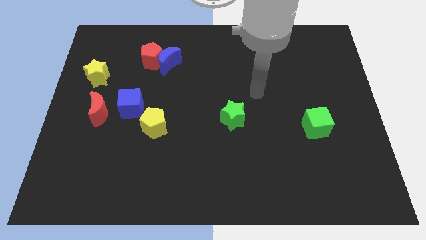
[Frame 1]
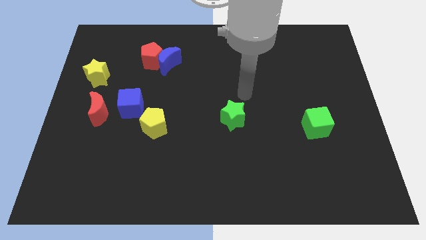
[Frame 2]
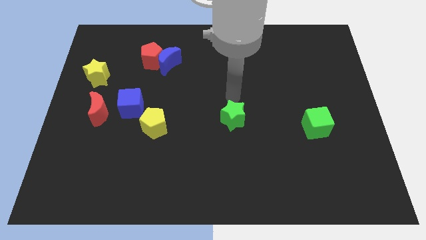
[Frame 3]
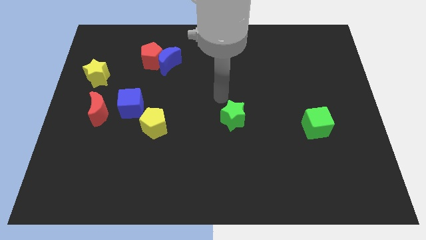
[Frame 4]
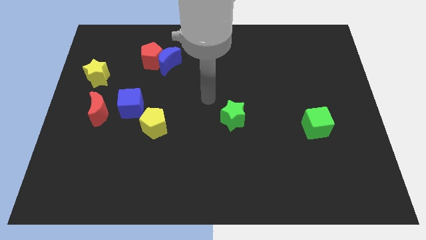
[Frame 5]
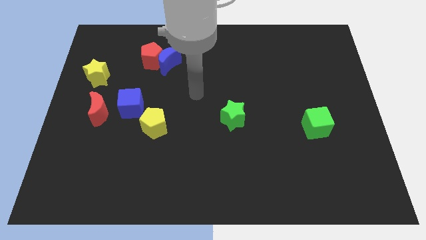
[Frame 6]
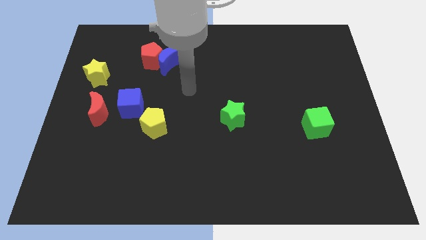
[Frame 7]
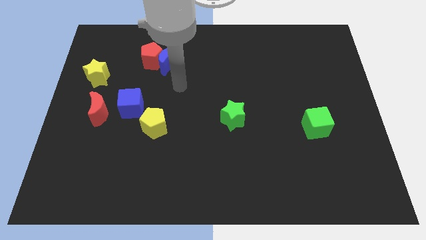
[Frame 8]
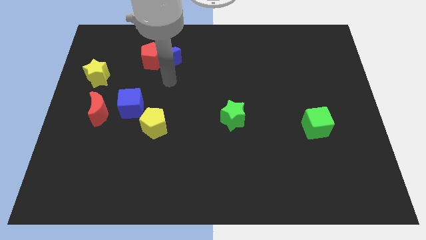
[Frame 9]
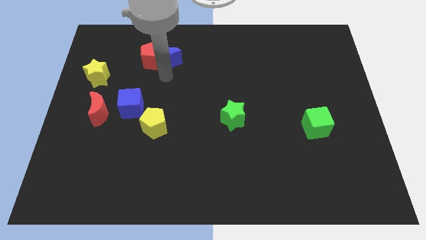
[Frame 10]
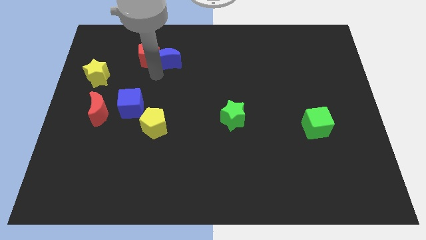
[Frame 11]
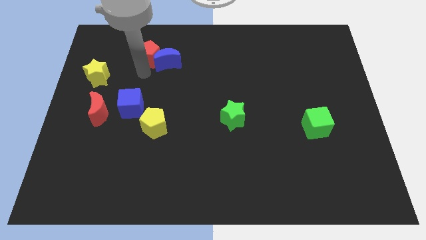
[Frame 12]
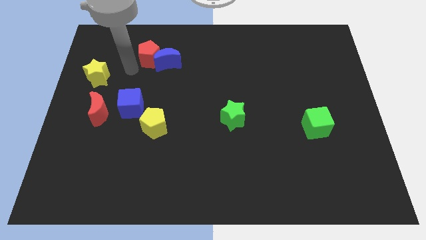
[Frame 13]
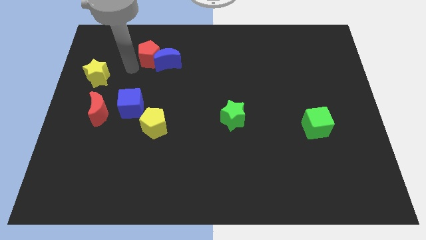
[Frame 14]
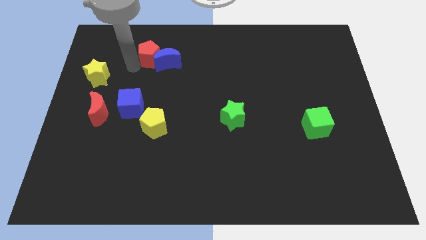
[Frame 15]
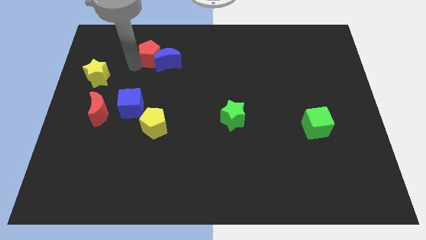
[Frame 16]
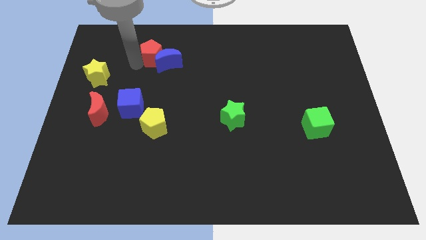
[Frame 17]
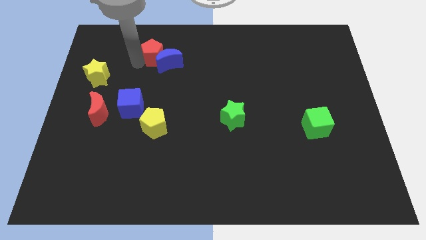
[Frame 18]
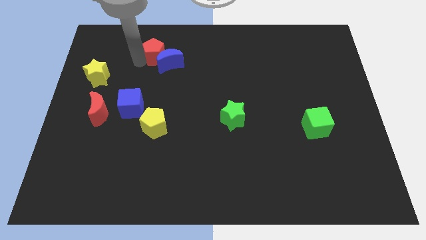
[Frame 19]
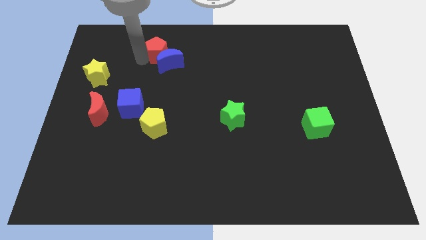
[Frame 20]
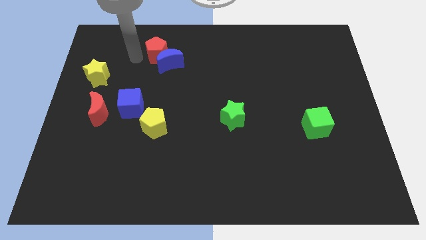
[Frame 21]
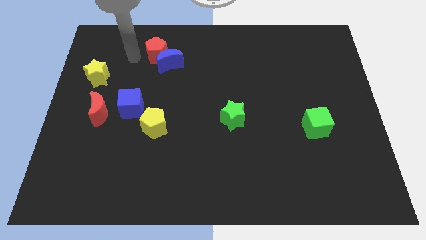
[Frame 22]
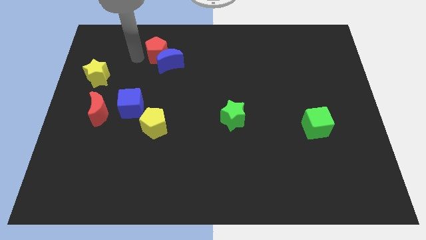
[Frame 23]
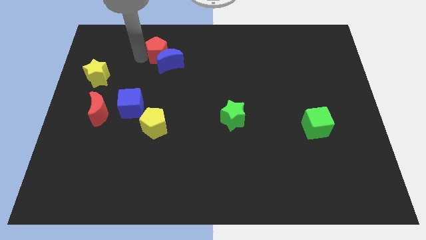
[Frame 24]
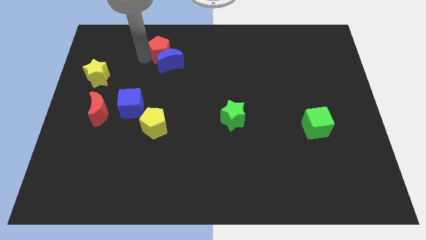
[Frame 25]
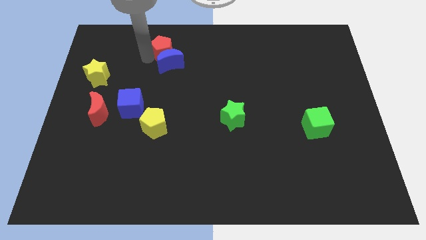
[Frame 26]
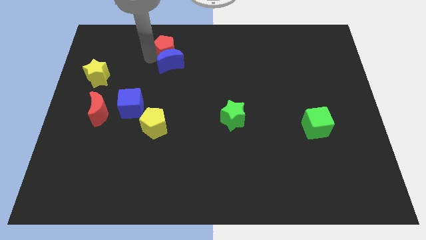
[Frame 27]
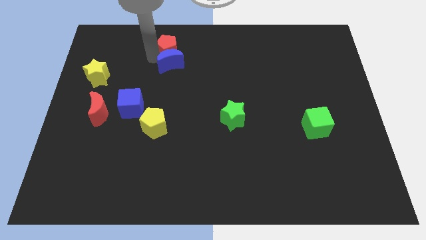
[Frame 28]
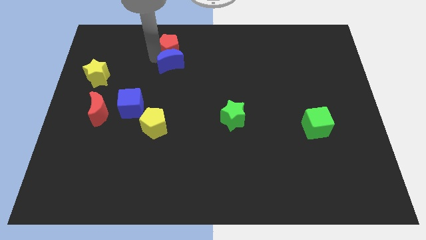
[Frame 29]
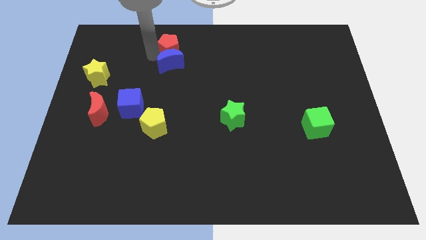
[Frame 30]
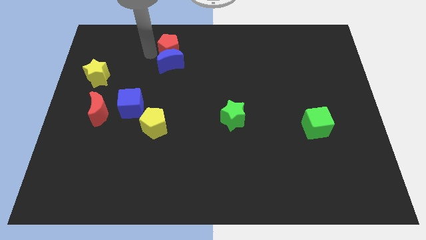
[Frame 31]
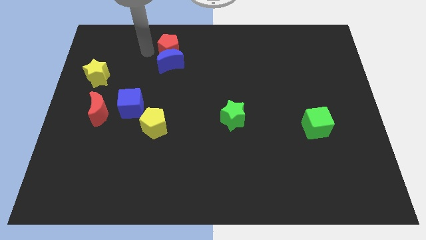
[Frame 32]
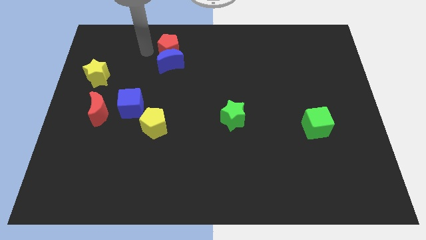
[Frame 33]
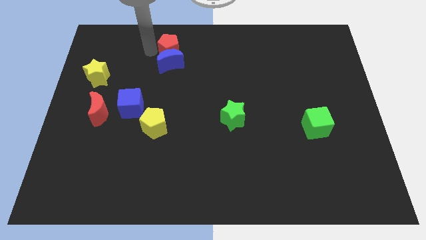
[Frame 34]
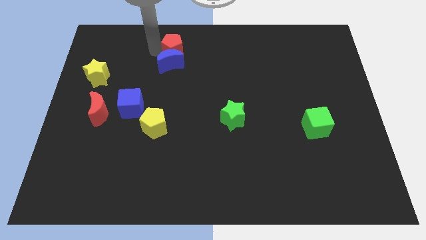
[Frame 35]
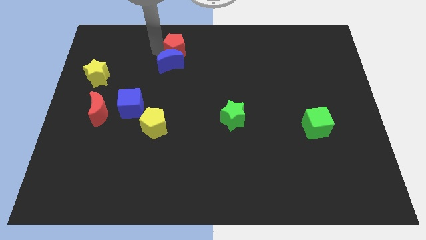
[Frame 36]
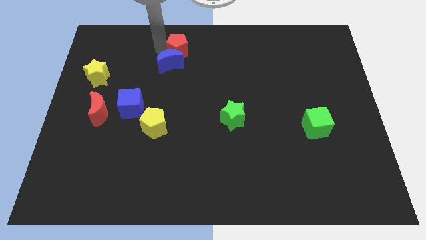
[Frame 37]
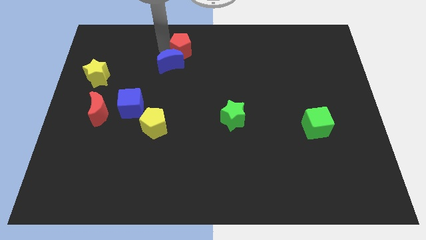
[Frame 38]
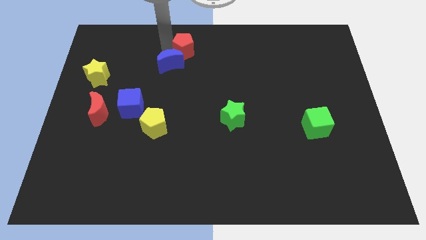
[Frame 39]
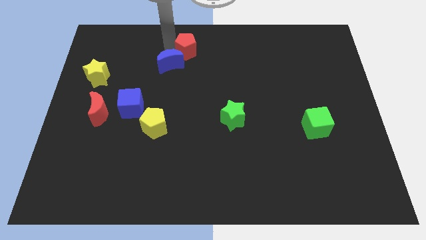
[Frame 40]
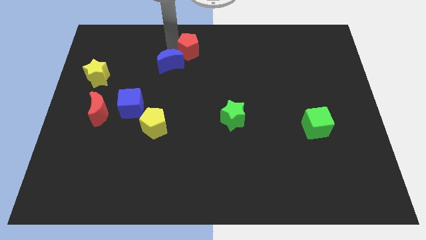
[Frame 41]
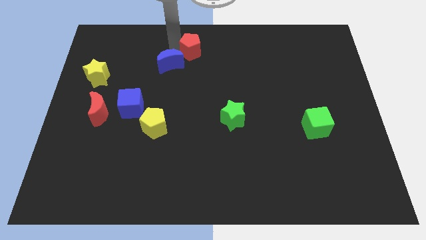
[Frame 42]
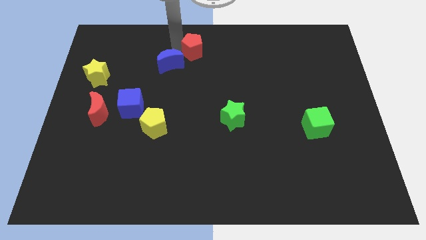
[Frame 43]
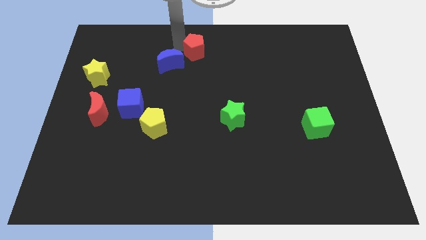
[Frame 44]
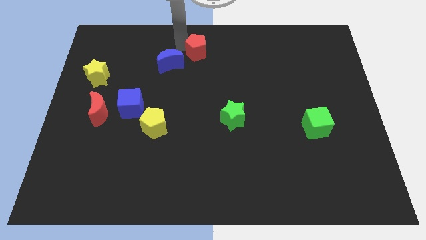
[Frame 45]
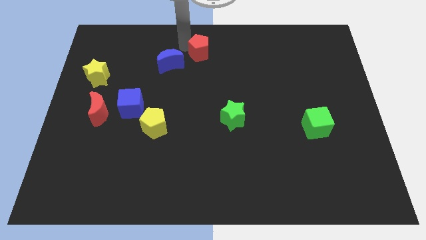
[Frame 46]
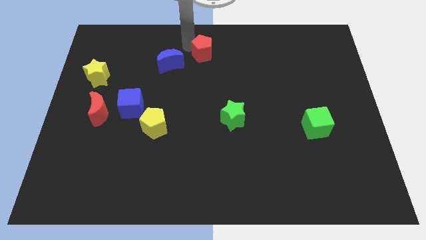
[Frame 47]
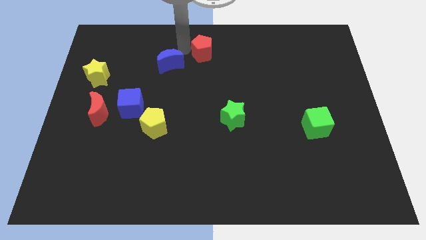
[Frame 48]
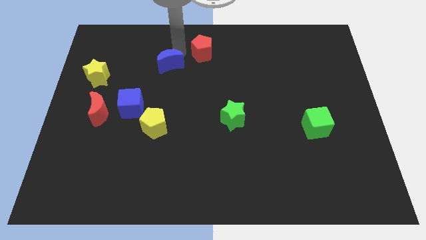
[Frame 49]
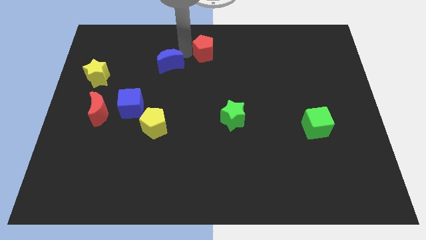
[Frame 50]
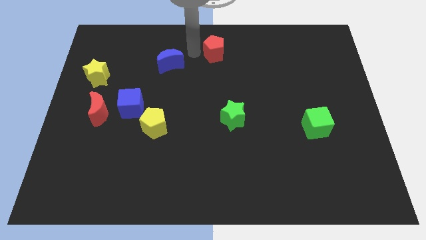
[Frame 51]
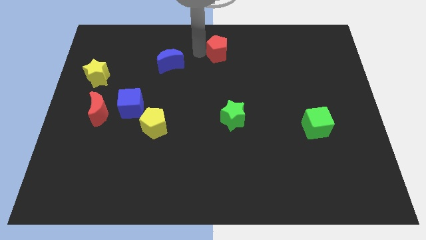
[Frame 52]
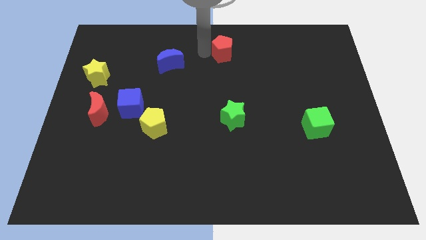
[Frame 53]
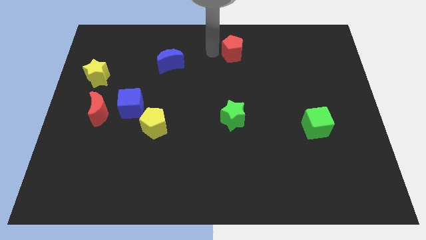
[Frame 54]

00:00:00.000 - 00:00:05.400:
slide the red pentagon to the right

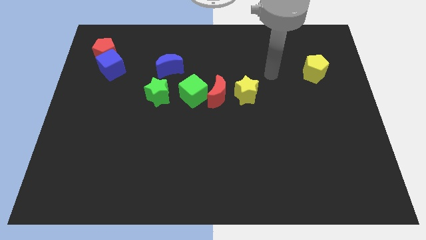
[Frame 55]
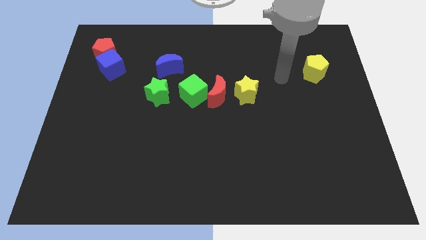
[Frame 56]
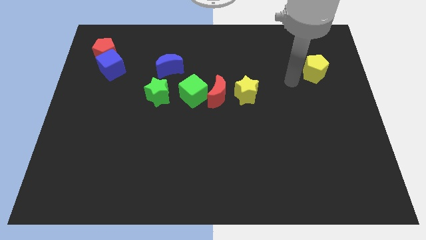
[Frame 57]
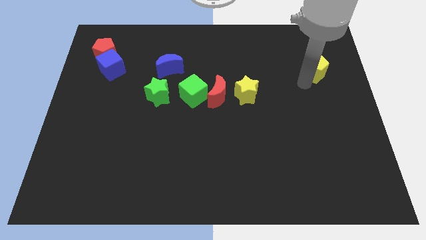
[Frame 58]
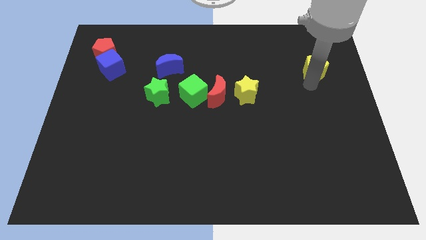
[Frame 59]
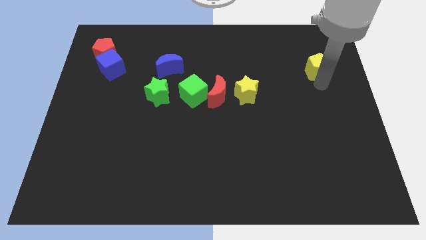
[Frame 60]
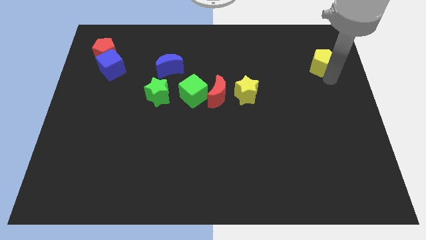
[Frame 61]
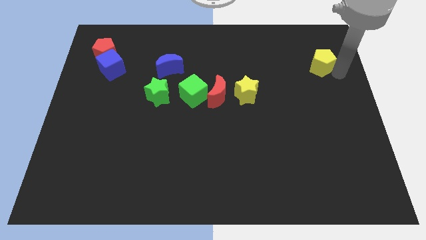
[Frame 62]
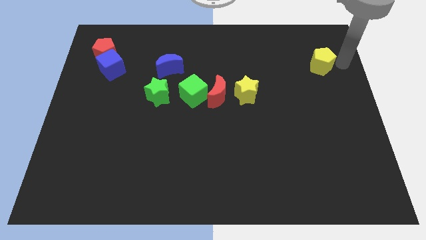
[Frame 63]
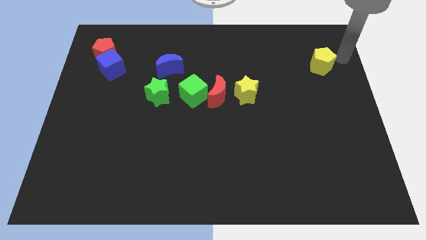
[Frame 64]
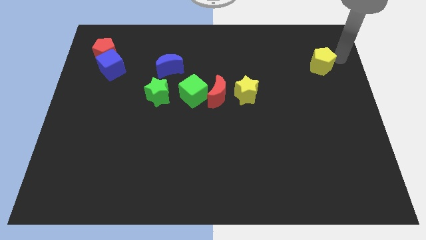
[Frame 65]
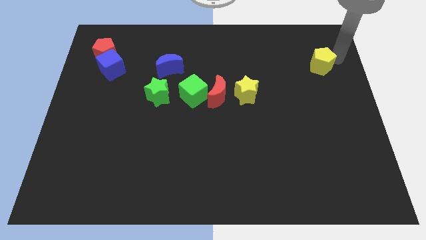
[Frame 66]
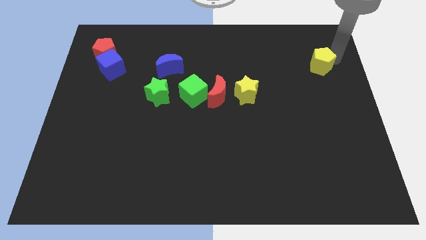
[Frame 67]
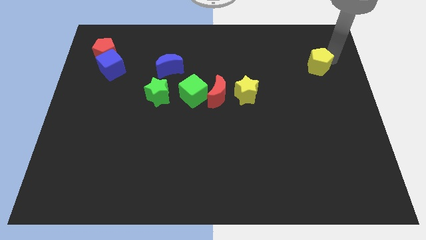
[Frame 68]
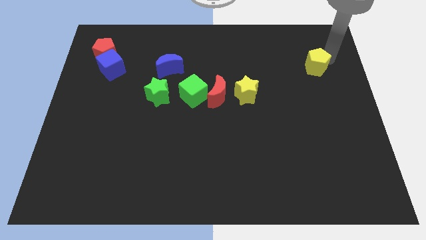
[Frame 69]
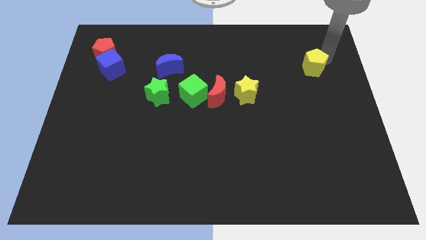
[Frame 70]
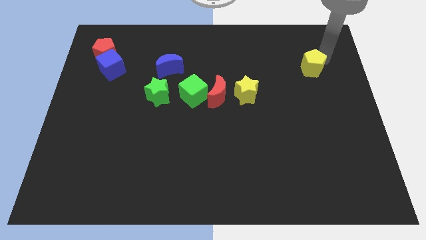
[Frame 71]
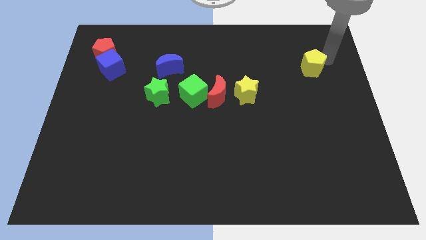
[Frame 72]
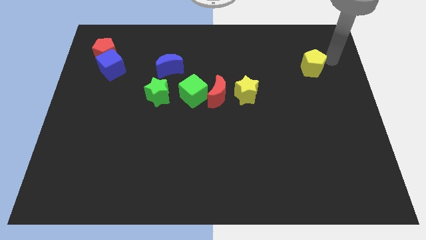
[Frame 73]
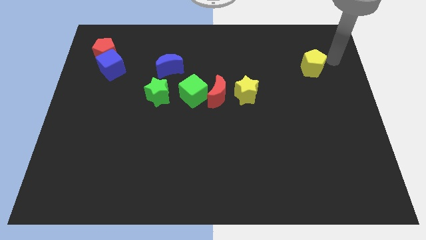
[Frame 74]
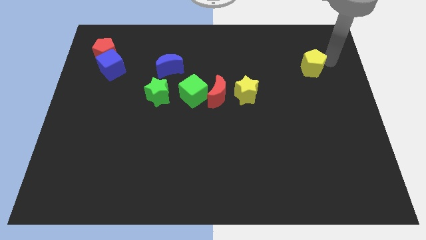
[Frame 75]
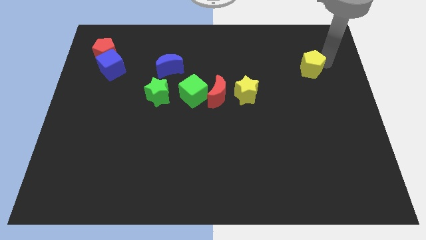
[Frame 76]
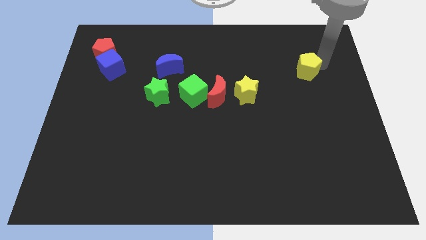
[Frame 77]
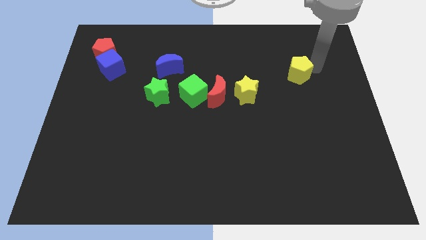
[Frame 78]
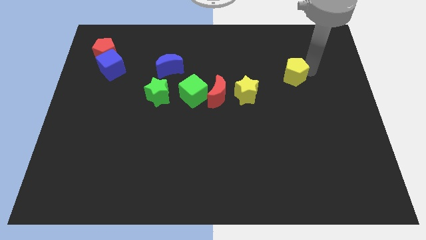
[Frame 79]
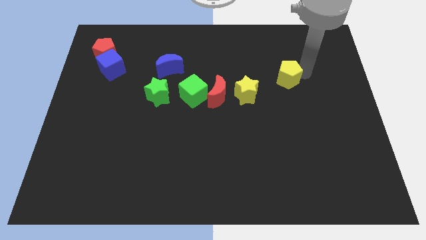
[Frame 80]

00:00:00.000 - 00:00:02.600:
move the yellow pentagon to the left a little

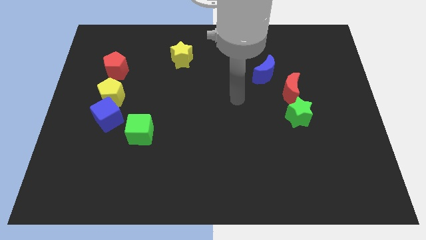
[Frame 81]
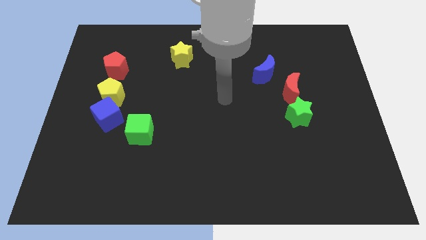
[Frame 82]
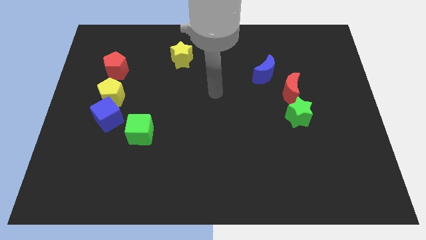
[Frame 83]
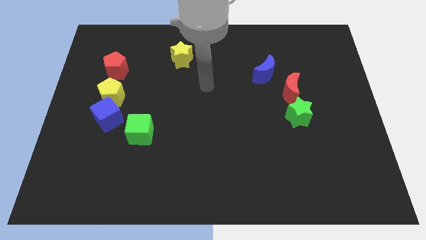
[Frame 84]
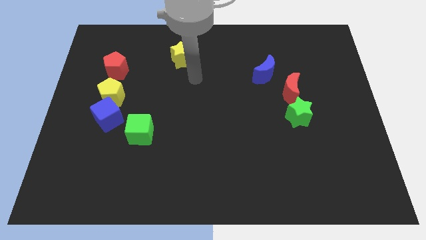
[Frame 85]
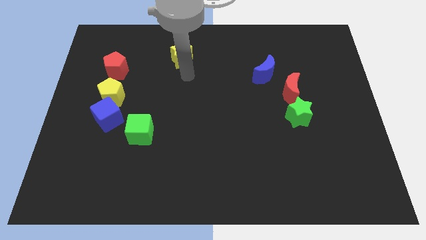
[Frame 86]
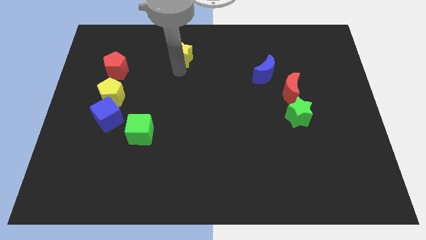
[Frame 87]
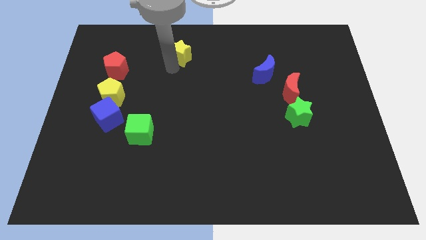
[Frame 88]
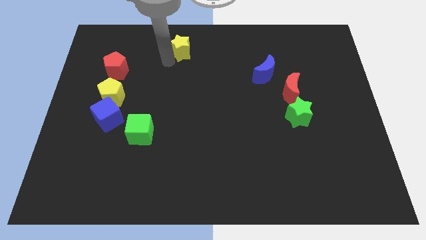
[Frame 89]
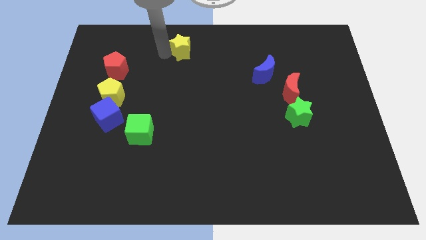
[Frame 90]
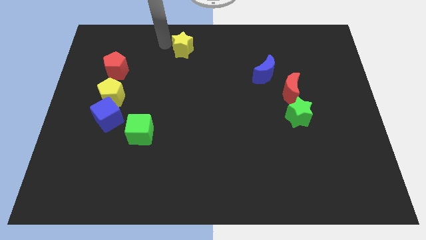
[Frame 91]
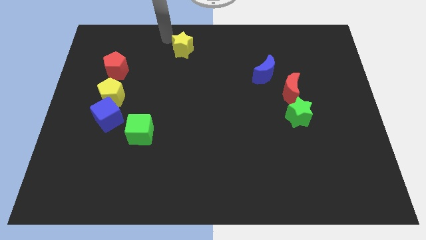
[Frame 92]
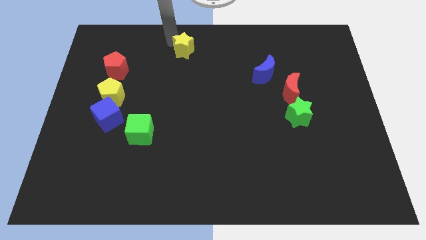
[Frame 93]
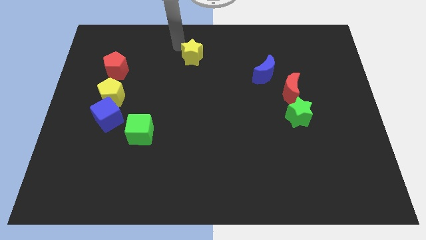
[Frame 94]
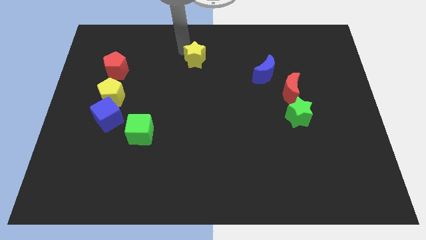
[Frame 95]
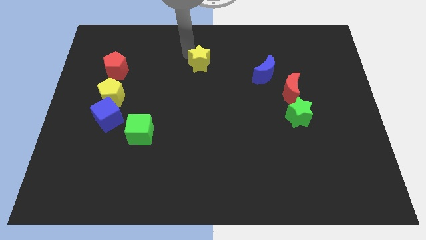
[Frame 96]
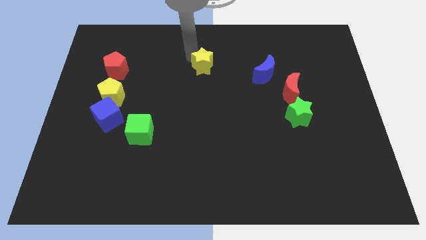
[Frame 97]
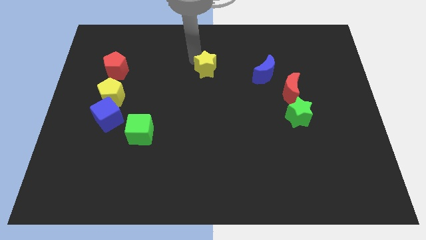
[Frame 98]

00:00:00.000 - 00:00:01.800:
slide the yellow star slightly down and to the right diagonally
